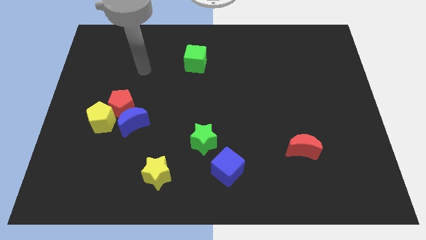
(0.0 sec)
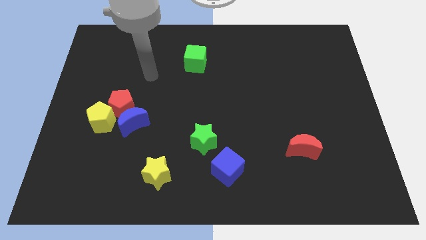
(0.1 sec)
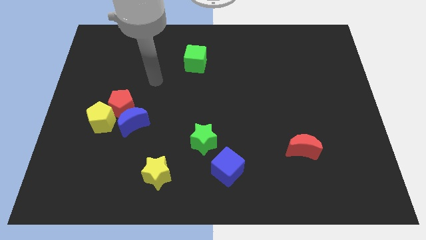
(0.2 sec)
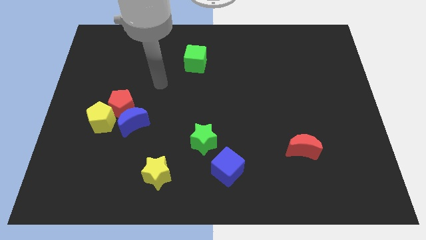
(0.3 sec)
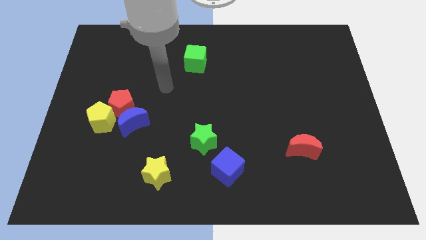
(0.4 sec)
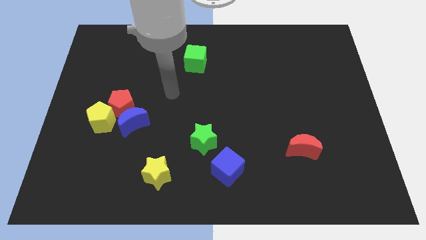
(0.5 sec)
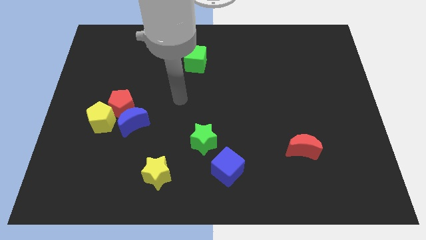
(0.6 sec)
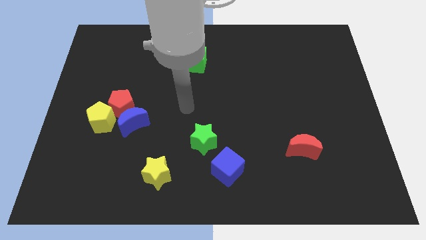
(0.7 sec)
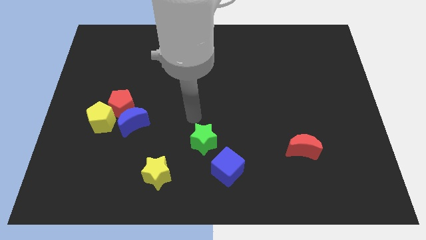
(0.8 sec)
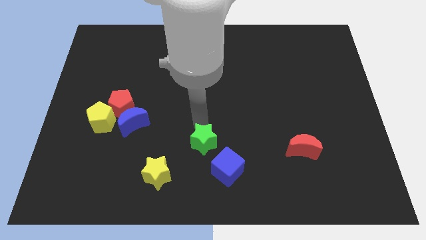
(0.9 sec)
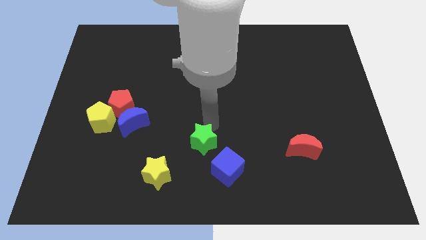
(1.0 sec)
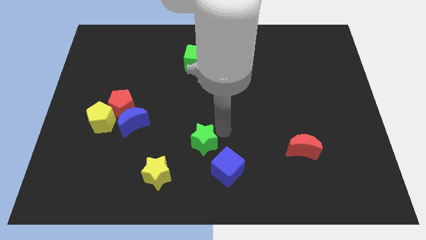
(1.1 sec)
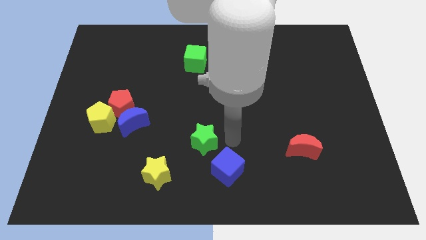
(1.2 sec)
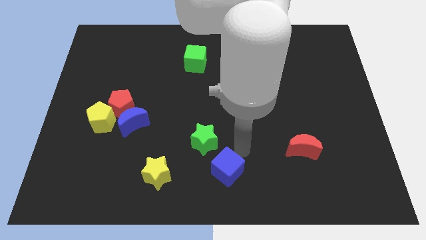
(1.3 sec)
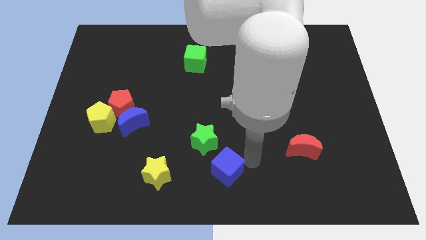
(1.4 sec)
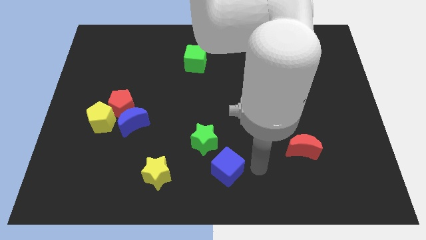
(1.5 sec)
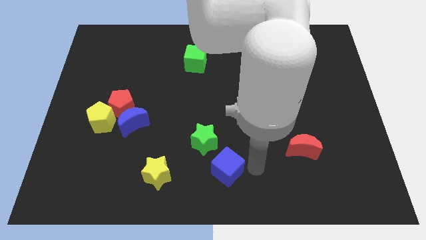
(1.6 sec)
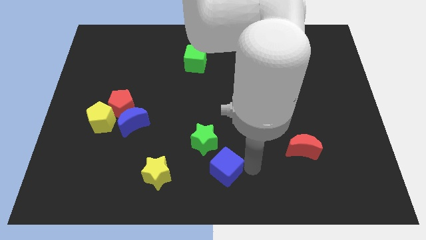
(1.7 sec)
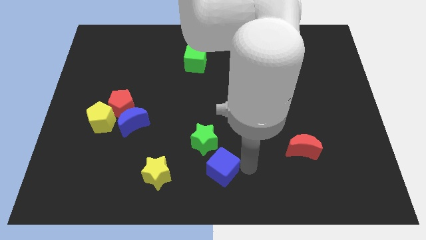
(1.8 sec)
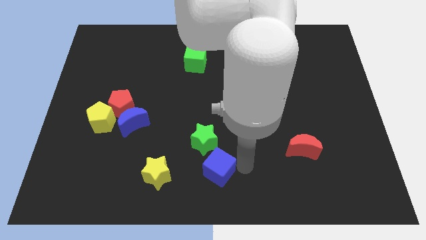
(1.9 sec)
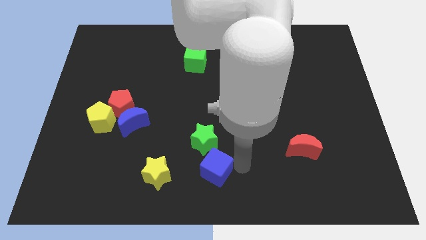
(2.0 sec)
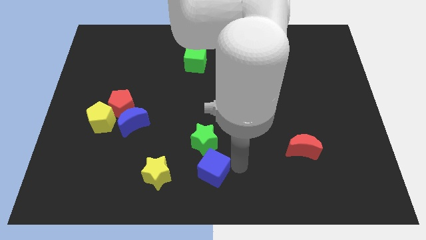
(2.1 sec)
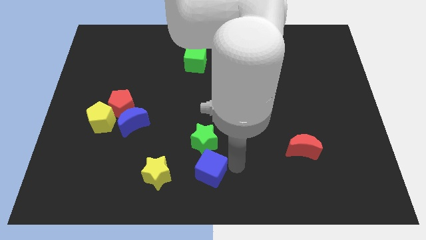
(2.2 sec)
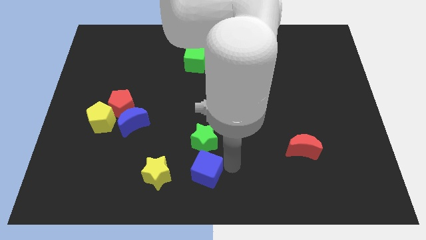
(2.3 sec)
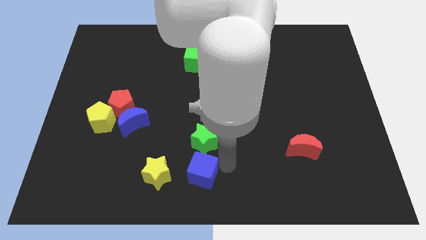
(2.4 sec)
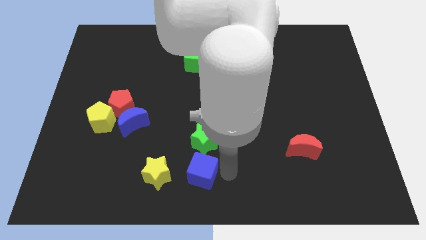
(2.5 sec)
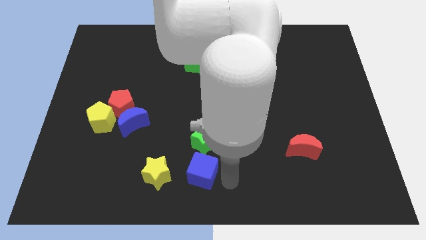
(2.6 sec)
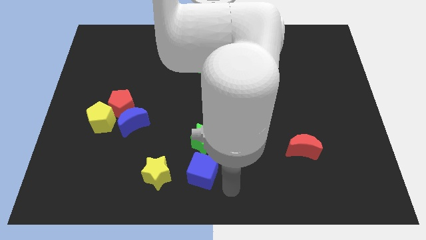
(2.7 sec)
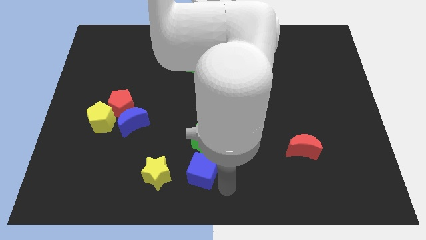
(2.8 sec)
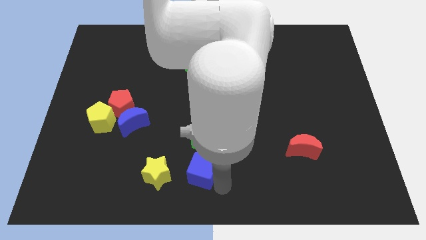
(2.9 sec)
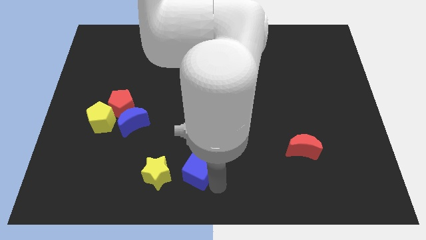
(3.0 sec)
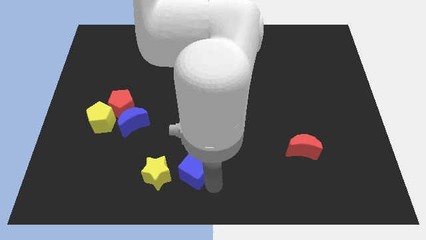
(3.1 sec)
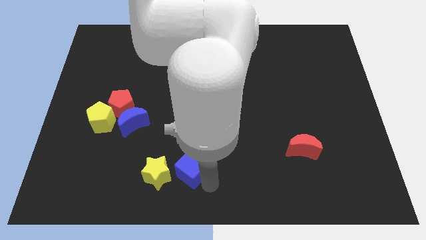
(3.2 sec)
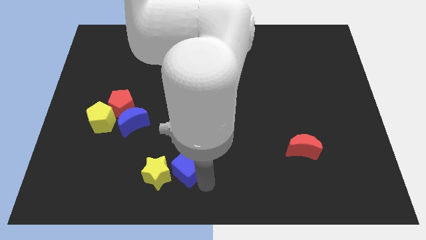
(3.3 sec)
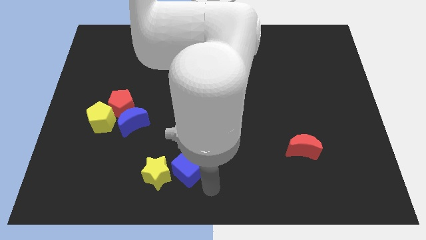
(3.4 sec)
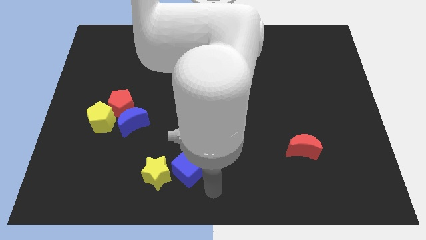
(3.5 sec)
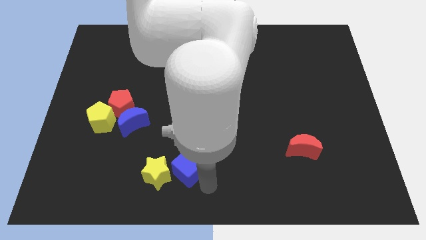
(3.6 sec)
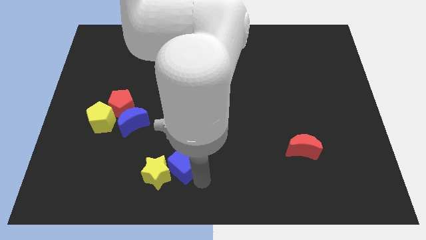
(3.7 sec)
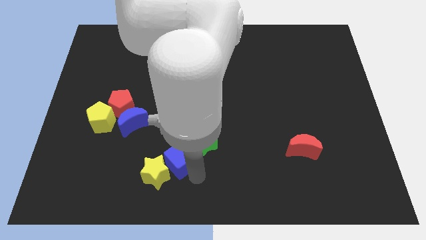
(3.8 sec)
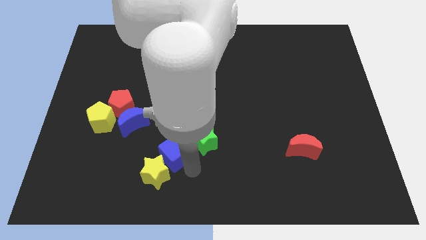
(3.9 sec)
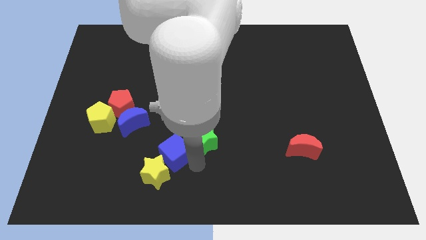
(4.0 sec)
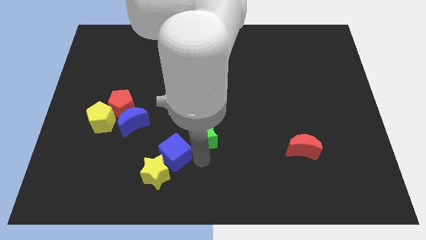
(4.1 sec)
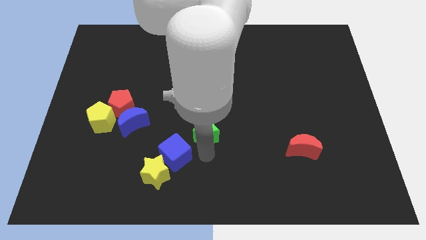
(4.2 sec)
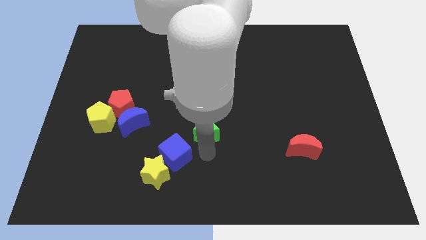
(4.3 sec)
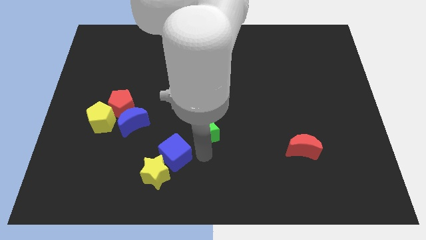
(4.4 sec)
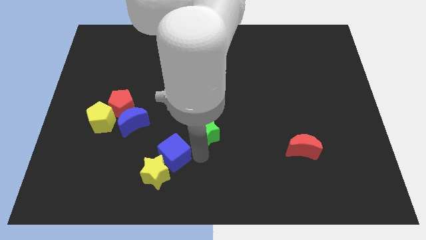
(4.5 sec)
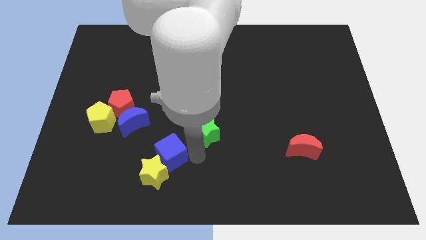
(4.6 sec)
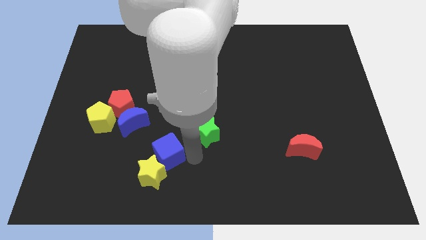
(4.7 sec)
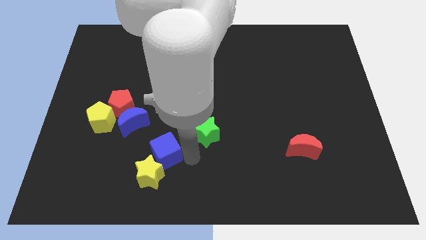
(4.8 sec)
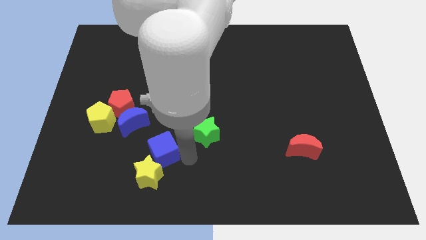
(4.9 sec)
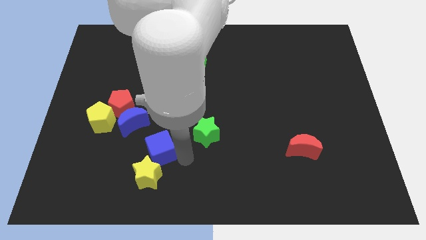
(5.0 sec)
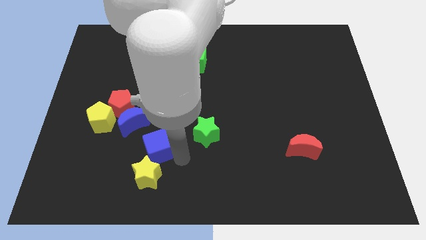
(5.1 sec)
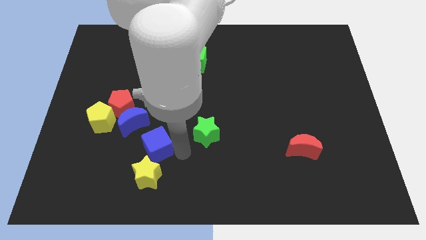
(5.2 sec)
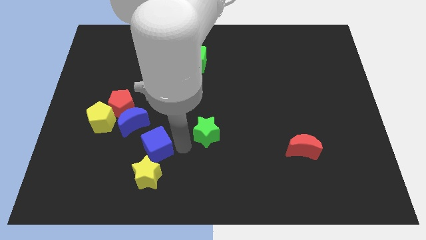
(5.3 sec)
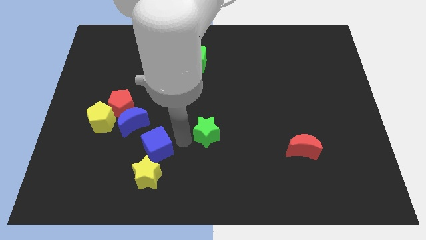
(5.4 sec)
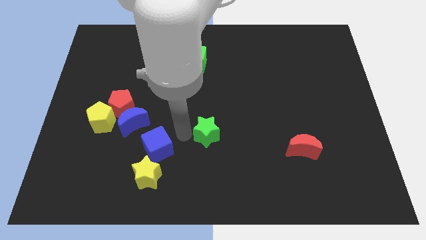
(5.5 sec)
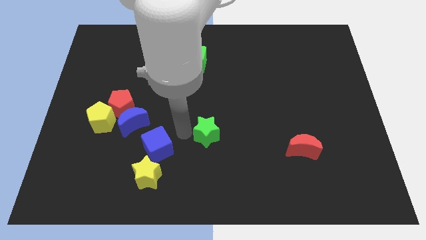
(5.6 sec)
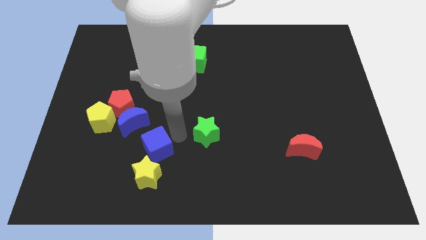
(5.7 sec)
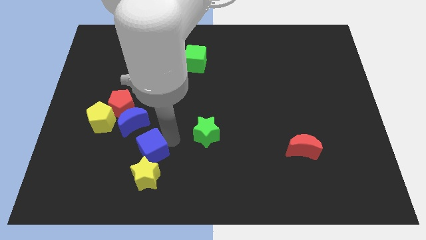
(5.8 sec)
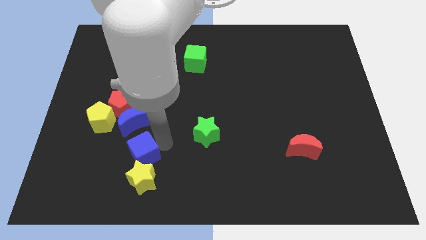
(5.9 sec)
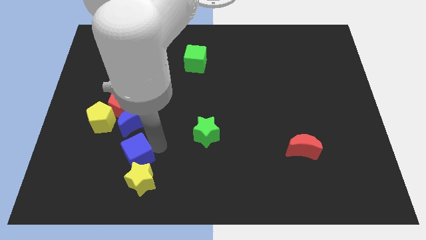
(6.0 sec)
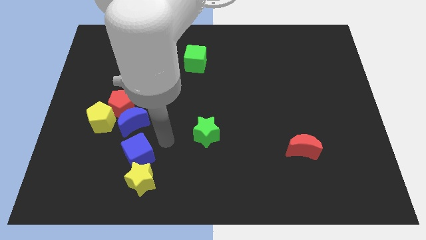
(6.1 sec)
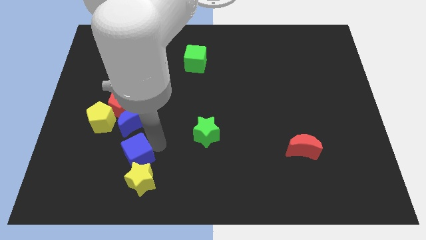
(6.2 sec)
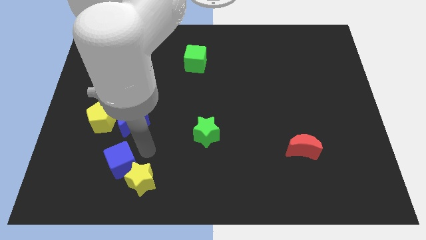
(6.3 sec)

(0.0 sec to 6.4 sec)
put the blue cube to the left of the yellow star

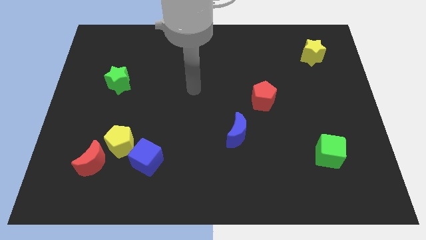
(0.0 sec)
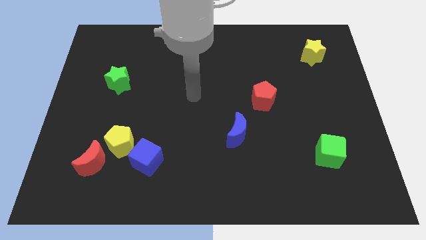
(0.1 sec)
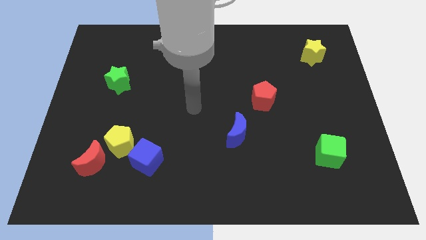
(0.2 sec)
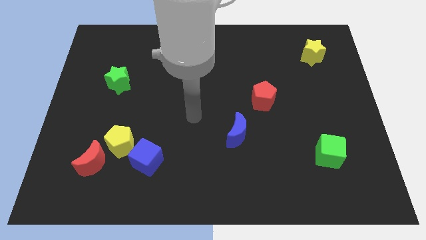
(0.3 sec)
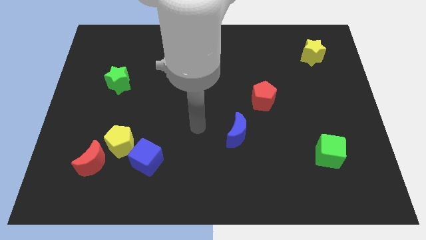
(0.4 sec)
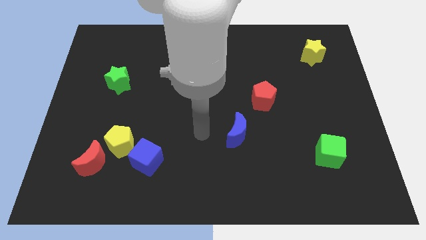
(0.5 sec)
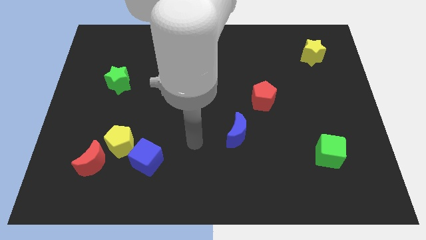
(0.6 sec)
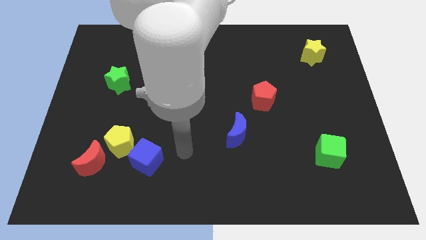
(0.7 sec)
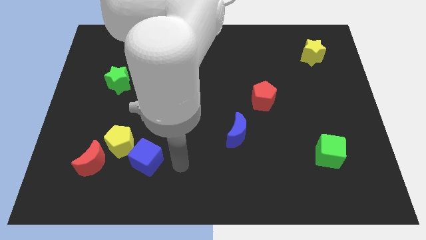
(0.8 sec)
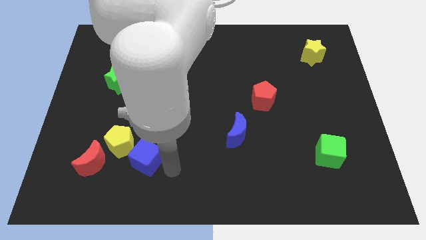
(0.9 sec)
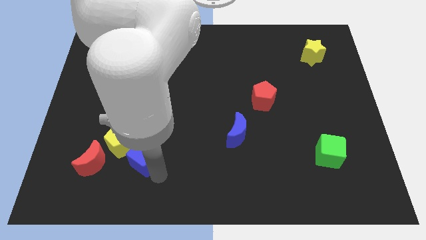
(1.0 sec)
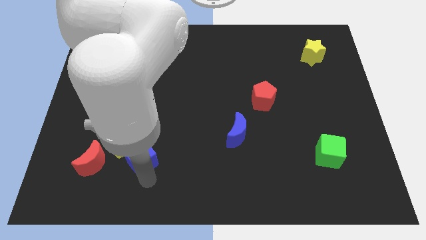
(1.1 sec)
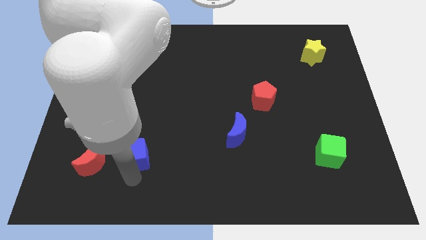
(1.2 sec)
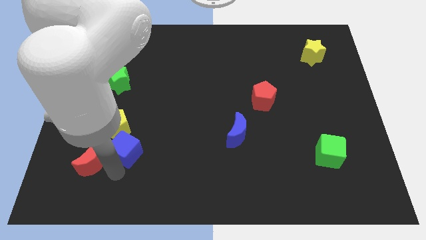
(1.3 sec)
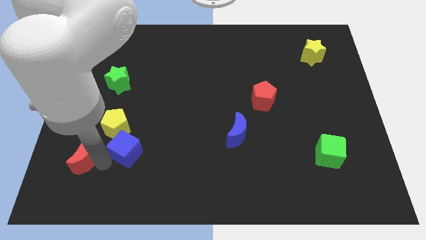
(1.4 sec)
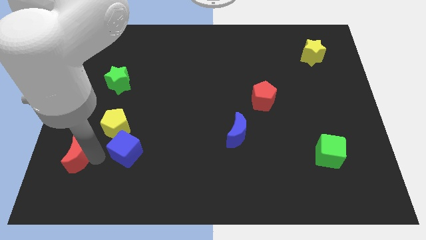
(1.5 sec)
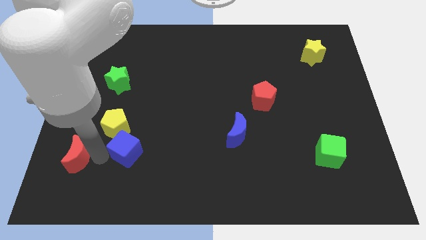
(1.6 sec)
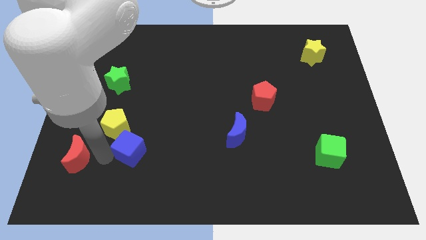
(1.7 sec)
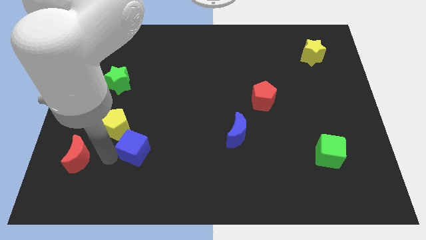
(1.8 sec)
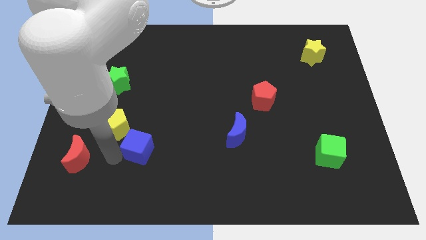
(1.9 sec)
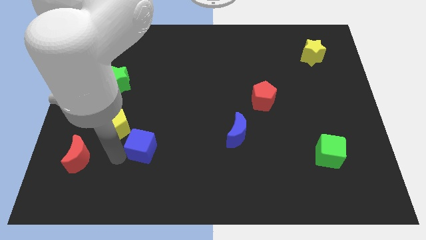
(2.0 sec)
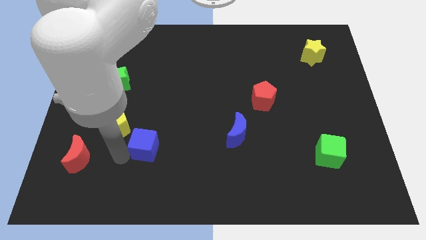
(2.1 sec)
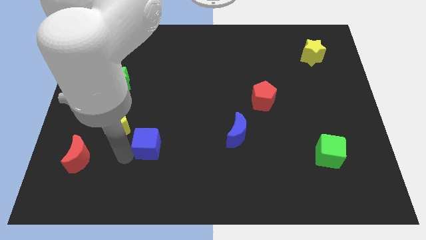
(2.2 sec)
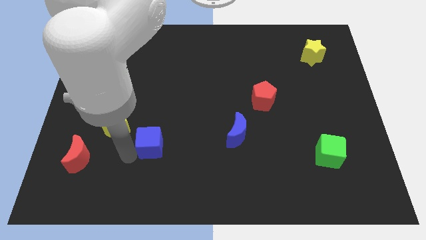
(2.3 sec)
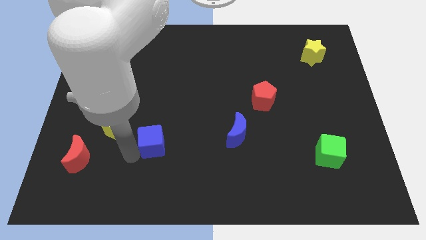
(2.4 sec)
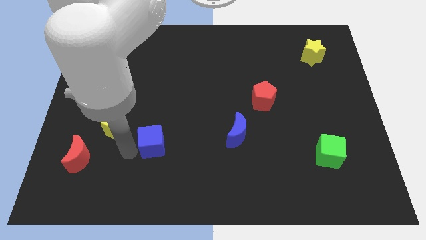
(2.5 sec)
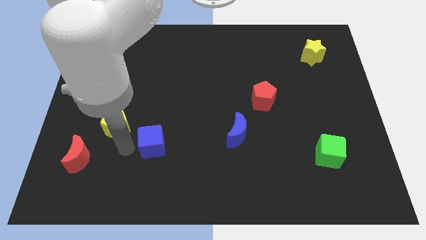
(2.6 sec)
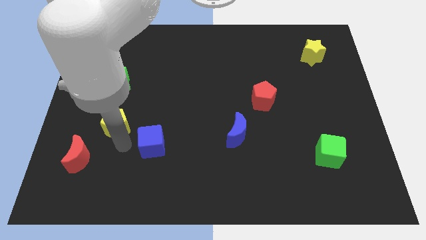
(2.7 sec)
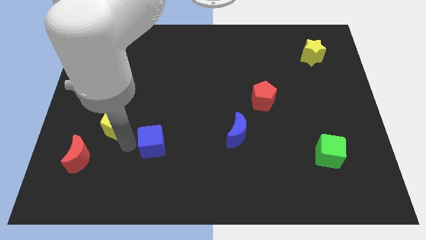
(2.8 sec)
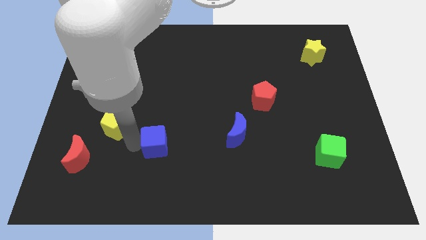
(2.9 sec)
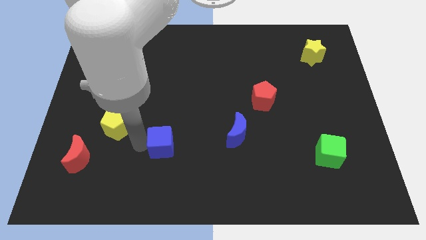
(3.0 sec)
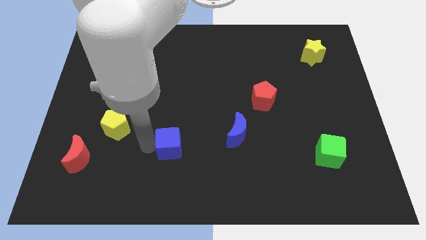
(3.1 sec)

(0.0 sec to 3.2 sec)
push the blue cube just left of the blue moon
